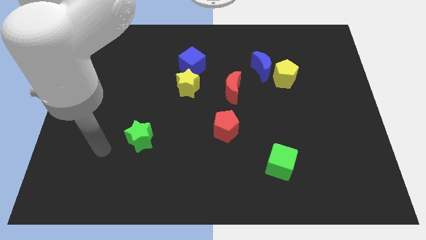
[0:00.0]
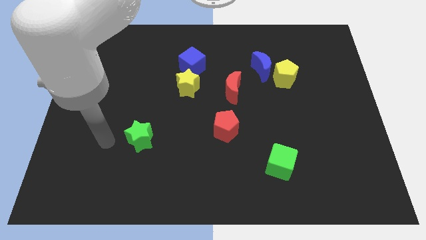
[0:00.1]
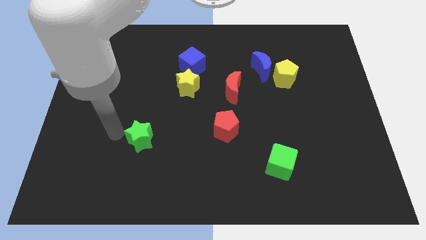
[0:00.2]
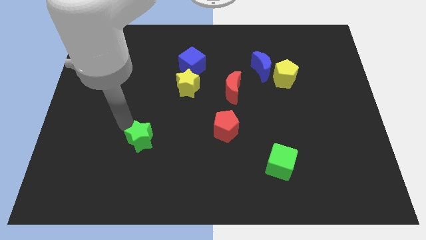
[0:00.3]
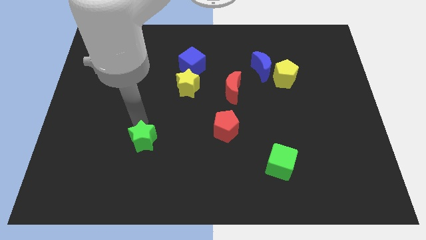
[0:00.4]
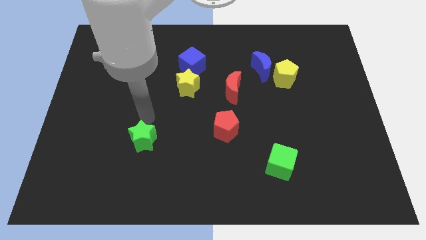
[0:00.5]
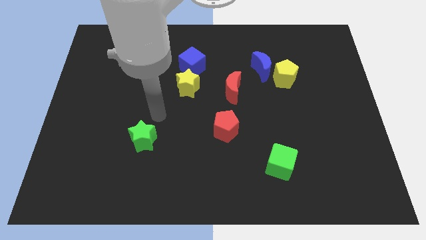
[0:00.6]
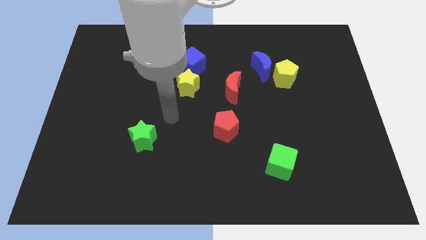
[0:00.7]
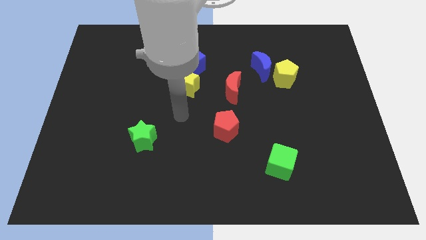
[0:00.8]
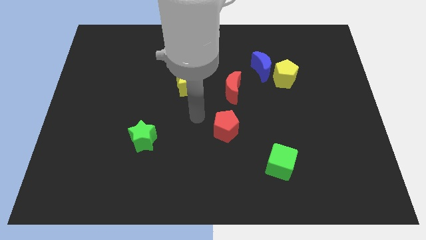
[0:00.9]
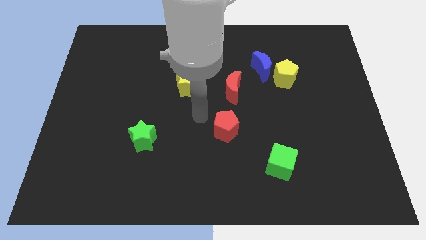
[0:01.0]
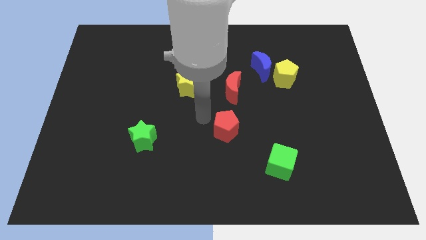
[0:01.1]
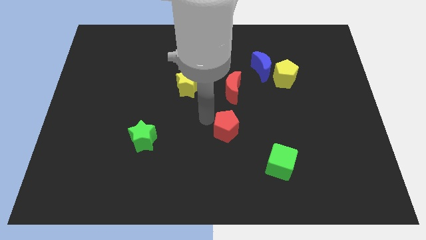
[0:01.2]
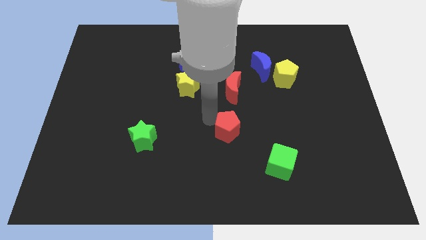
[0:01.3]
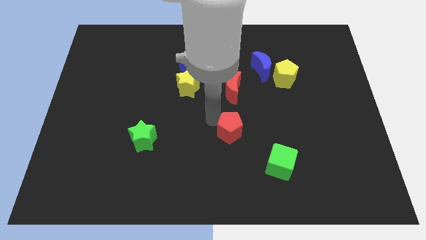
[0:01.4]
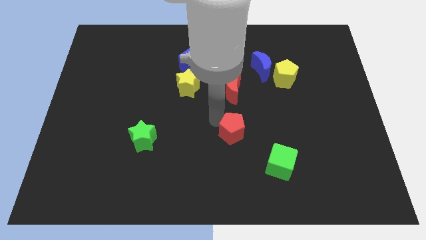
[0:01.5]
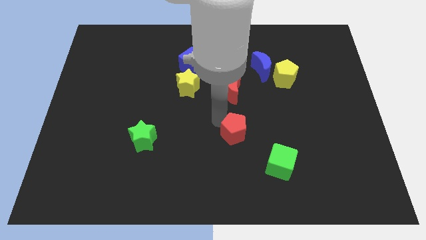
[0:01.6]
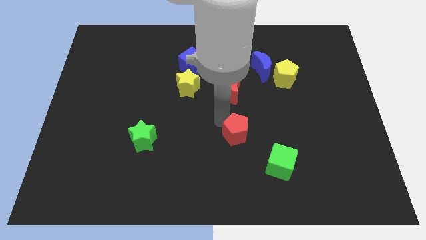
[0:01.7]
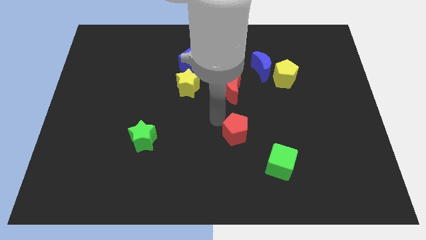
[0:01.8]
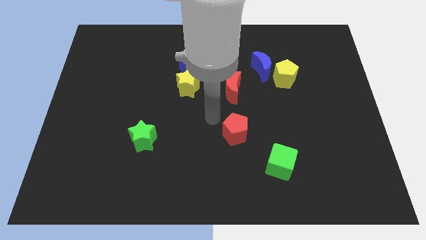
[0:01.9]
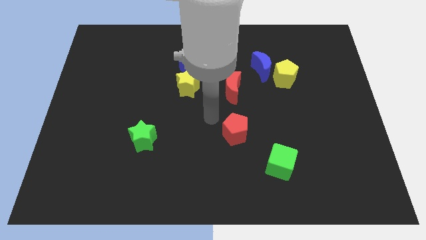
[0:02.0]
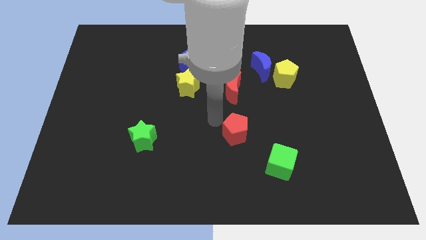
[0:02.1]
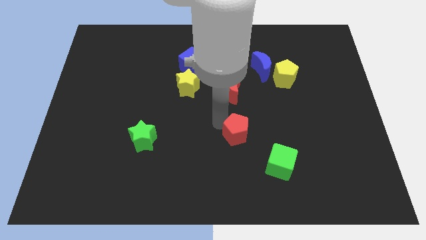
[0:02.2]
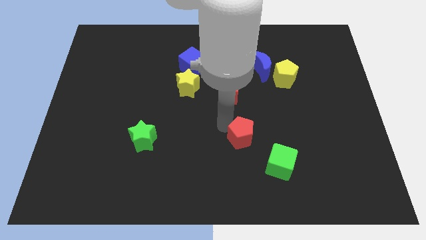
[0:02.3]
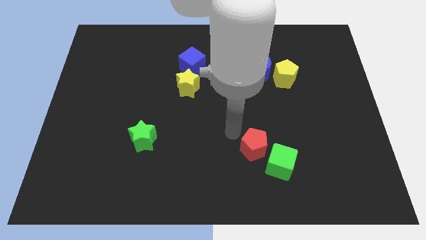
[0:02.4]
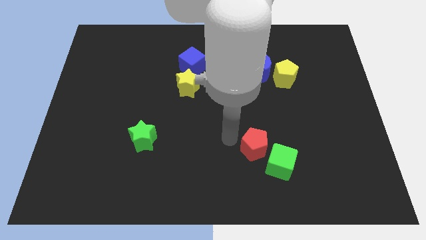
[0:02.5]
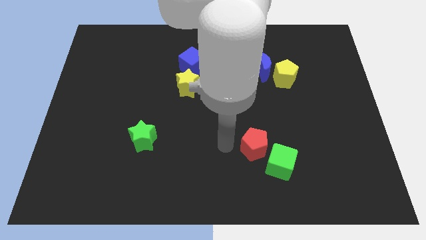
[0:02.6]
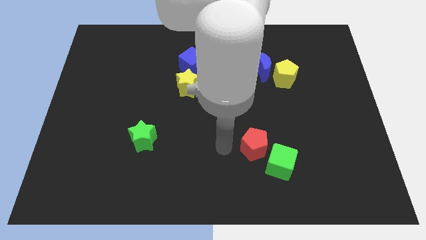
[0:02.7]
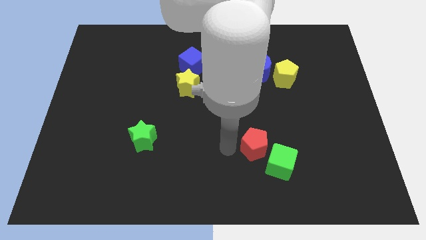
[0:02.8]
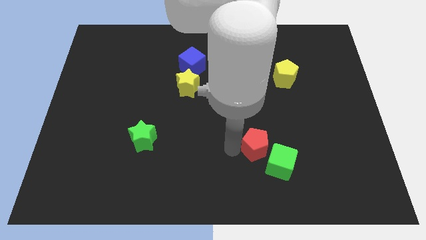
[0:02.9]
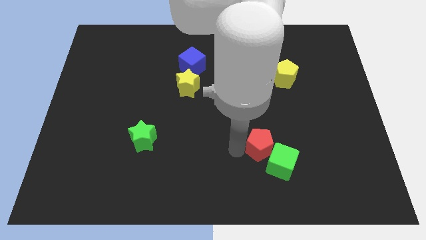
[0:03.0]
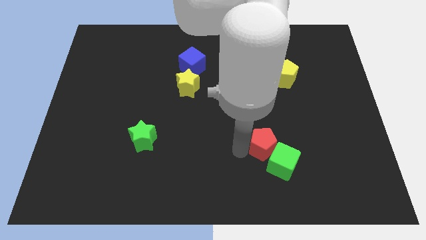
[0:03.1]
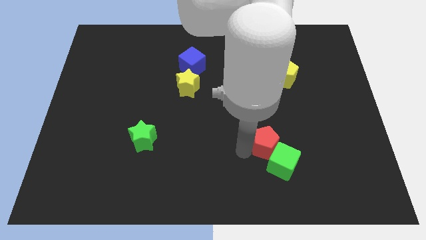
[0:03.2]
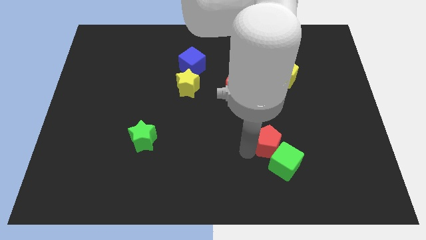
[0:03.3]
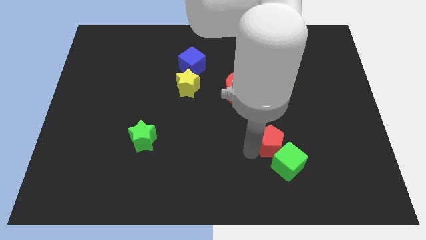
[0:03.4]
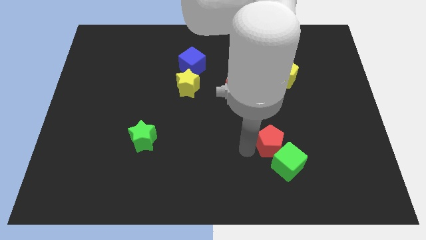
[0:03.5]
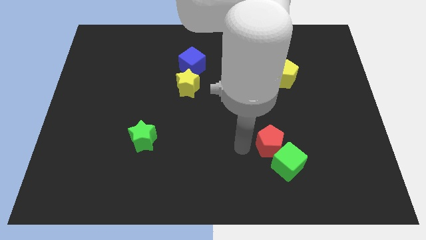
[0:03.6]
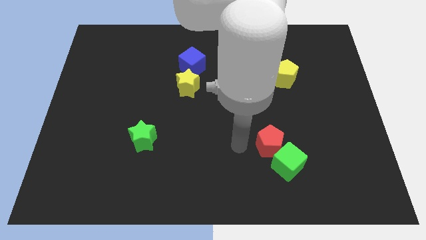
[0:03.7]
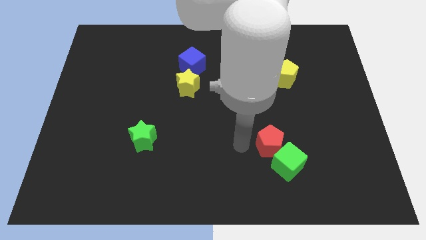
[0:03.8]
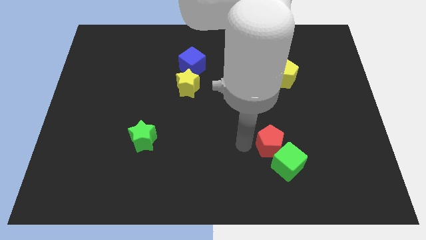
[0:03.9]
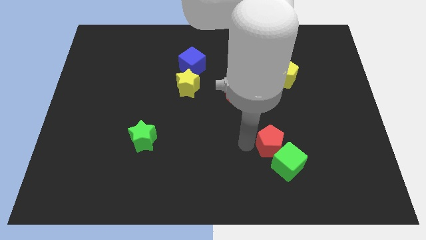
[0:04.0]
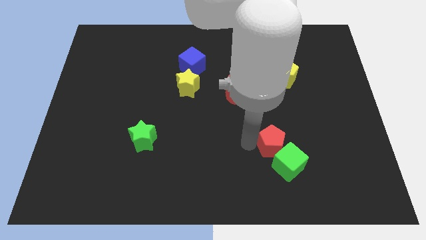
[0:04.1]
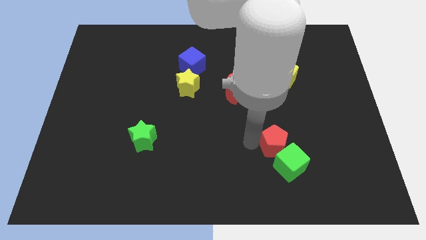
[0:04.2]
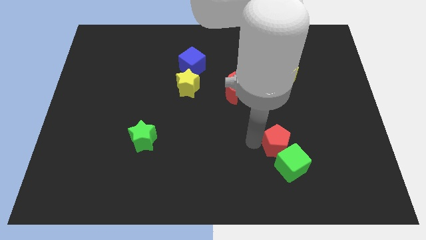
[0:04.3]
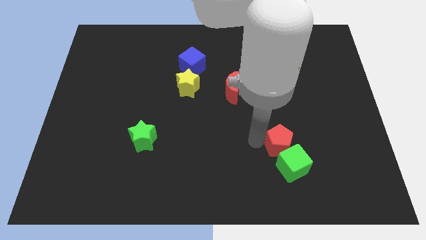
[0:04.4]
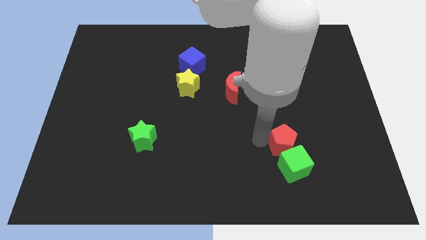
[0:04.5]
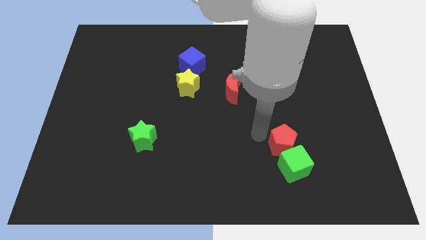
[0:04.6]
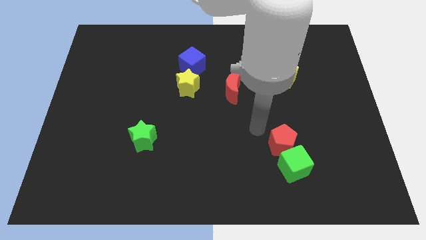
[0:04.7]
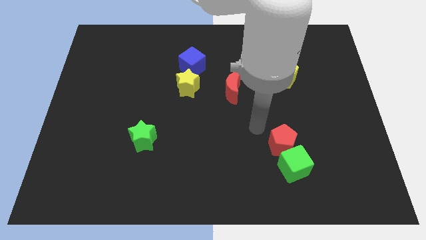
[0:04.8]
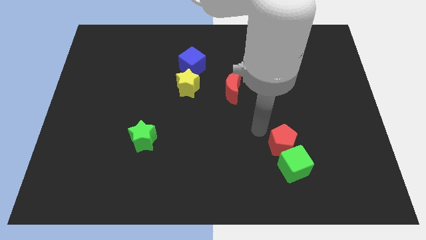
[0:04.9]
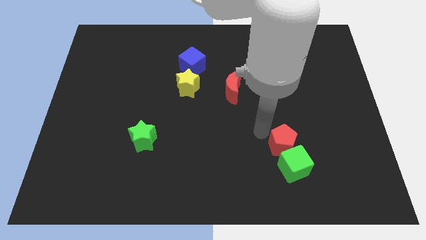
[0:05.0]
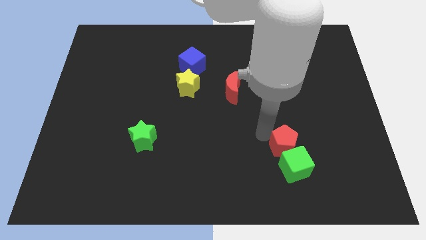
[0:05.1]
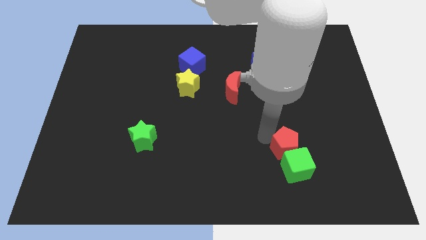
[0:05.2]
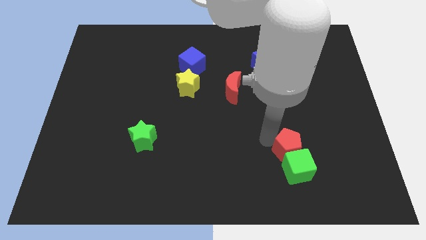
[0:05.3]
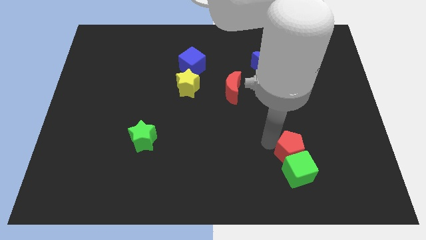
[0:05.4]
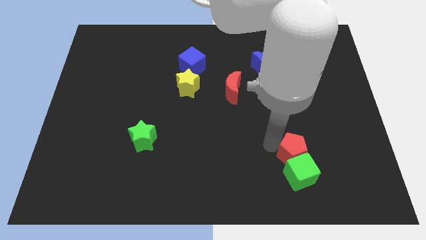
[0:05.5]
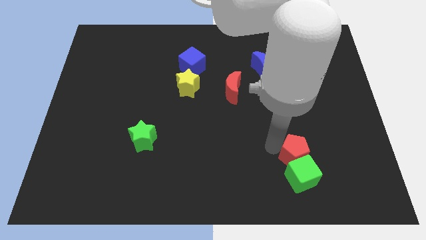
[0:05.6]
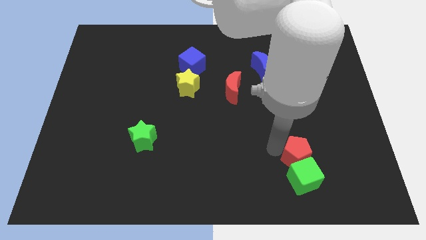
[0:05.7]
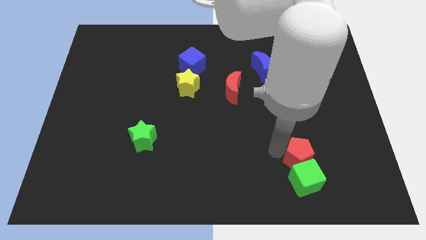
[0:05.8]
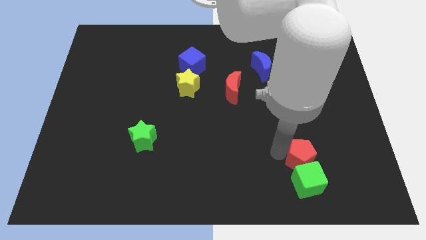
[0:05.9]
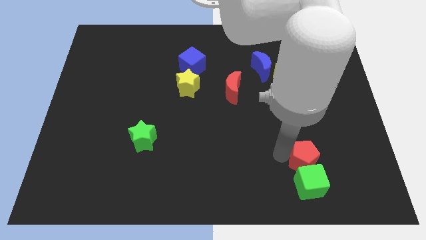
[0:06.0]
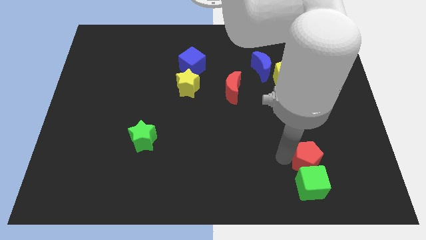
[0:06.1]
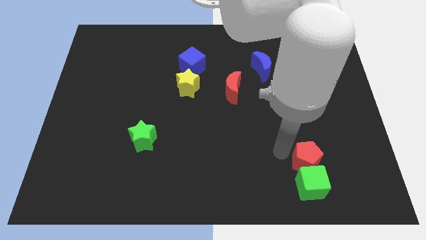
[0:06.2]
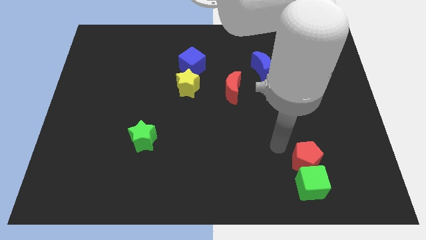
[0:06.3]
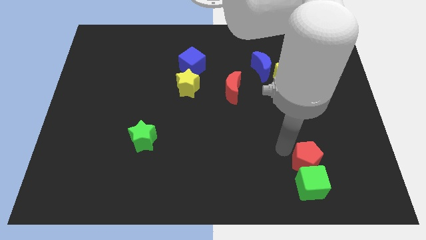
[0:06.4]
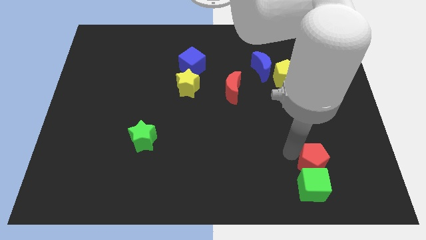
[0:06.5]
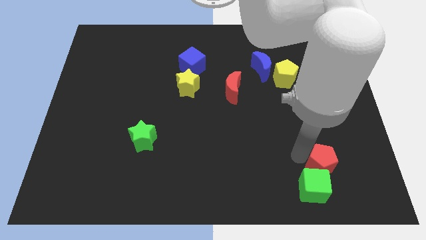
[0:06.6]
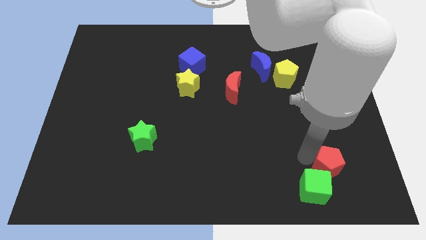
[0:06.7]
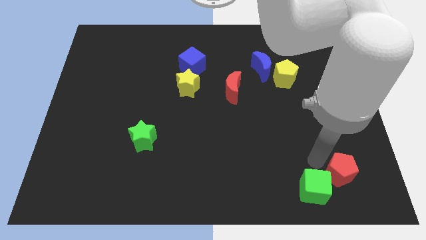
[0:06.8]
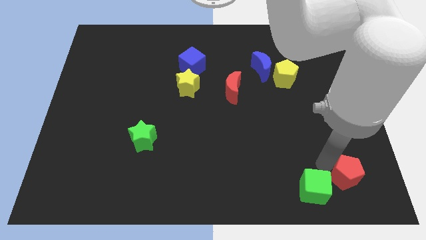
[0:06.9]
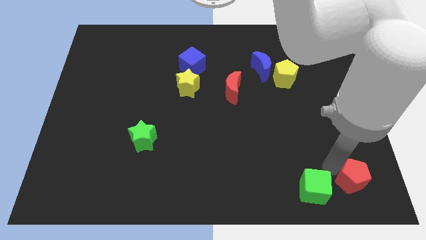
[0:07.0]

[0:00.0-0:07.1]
move the red pentagon to the bottom right corner
